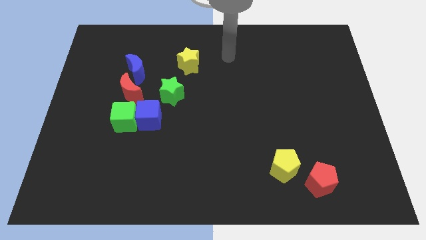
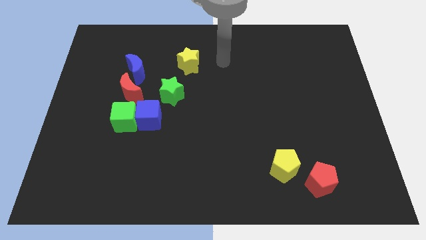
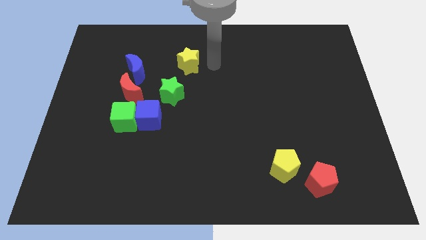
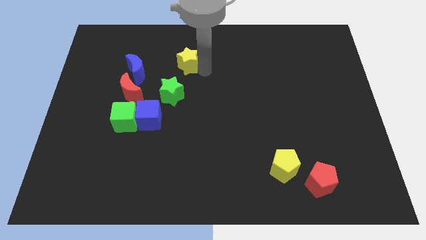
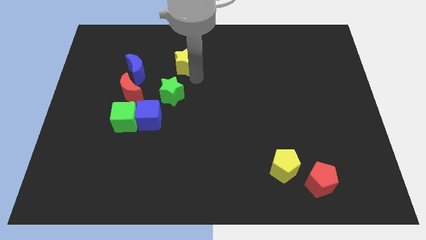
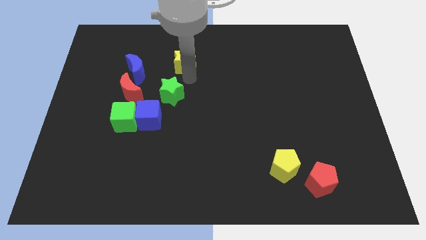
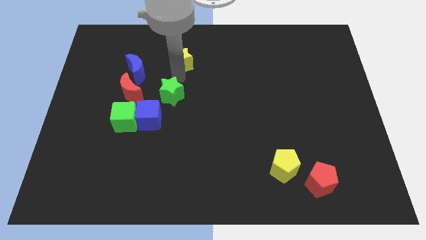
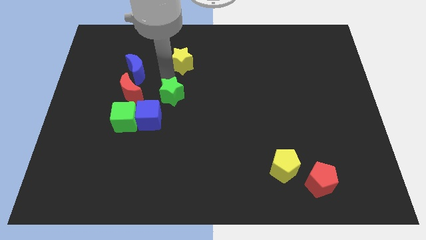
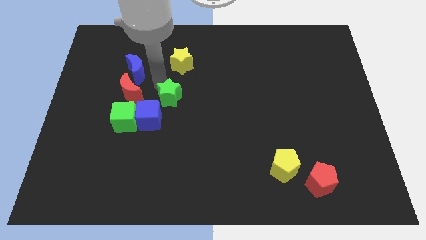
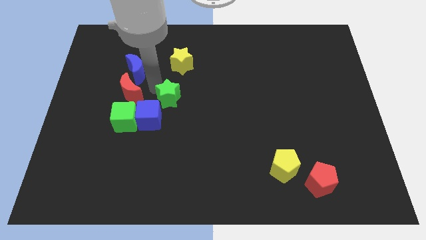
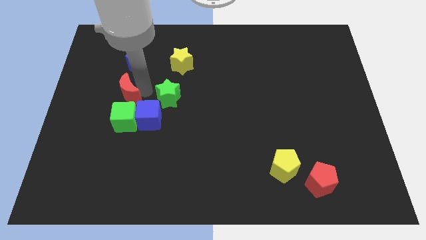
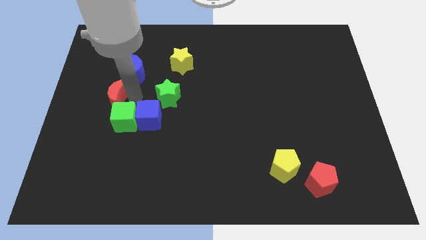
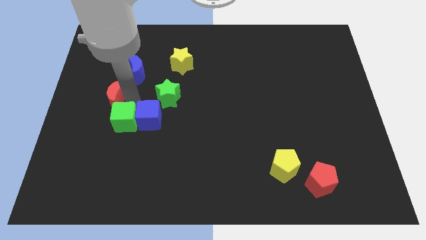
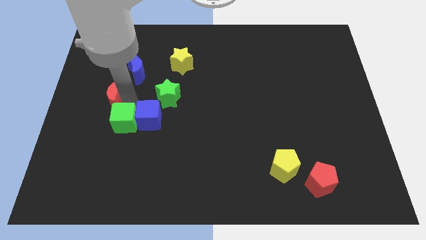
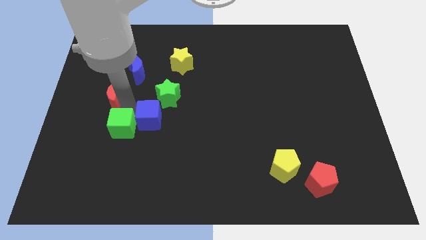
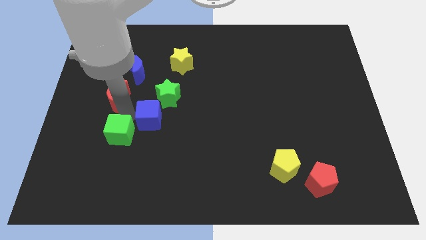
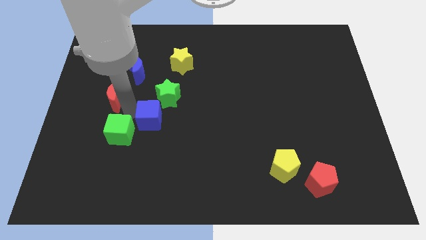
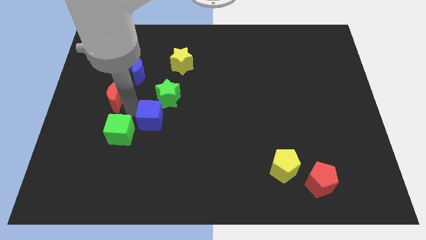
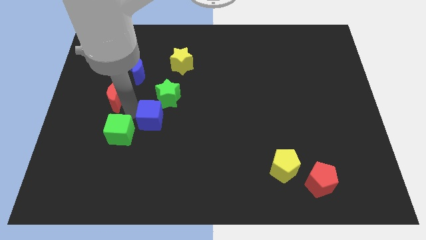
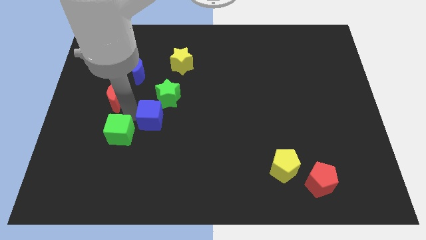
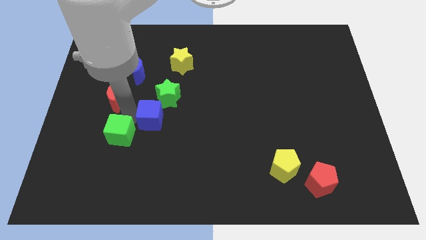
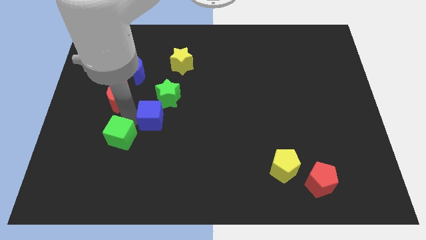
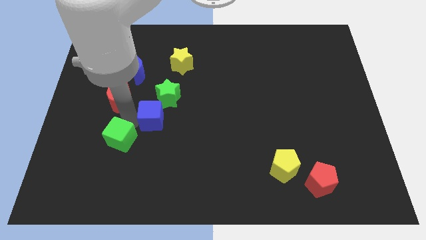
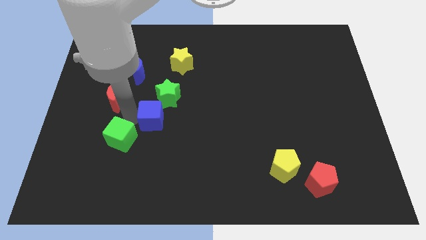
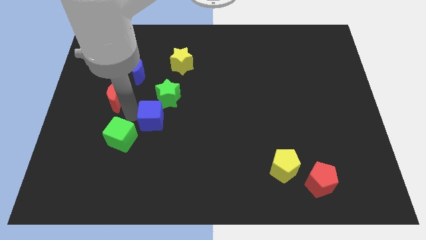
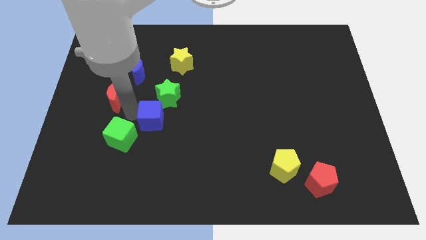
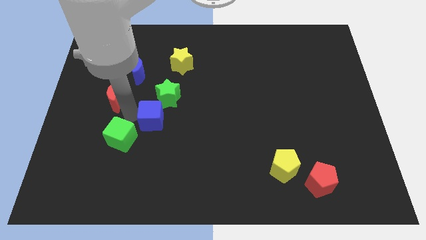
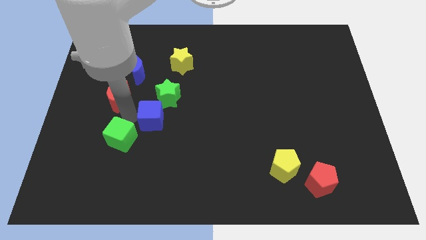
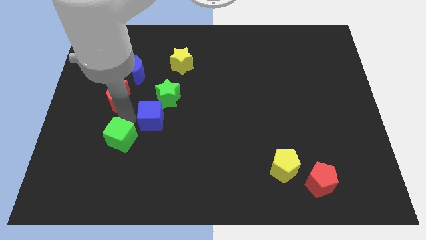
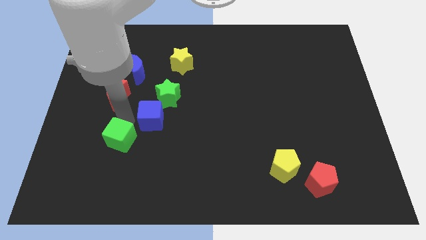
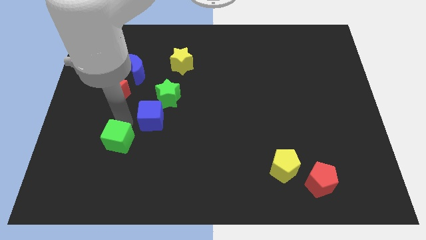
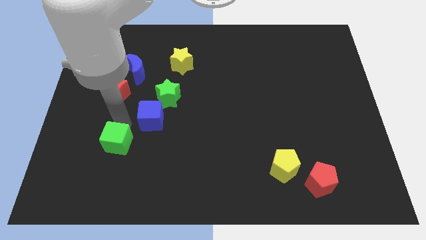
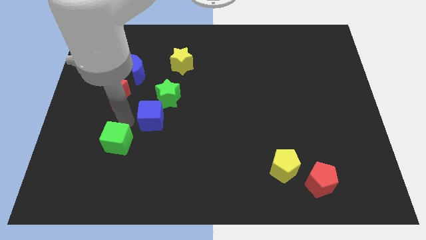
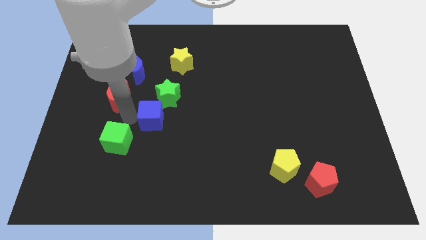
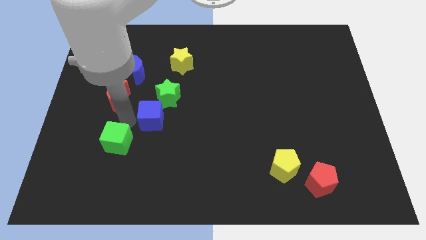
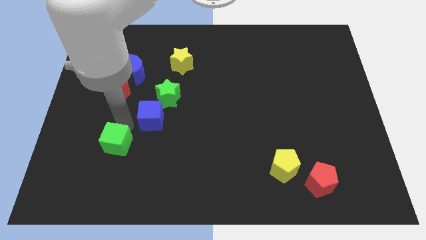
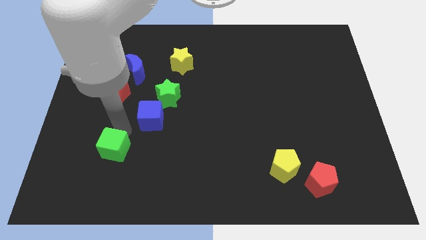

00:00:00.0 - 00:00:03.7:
pull the green cube apart from the blue cube and red moon

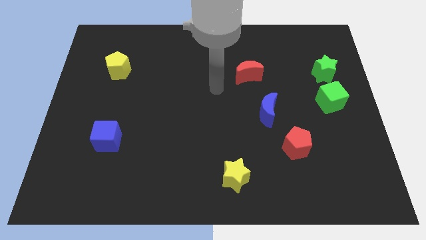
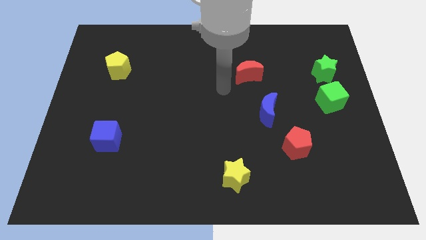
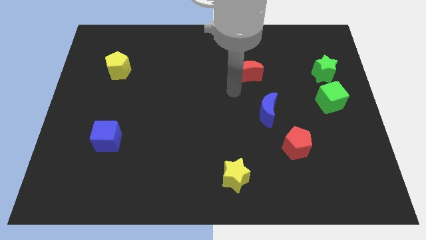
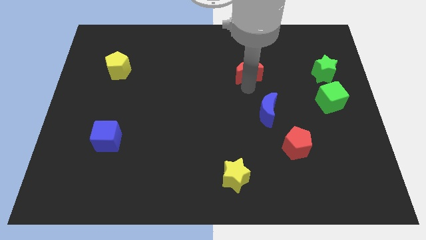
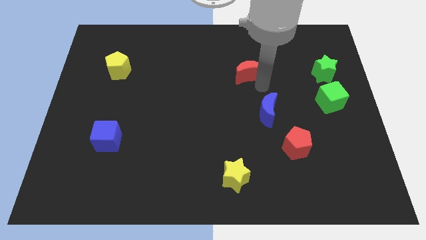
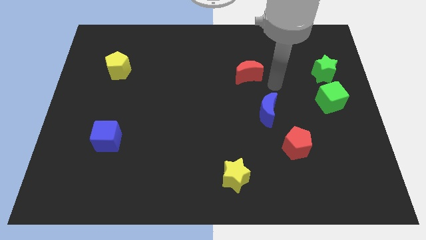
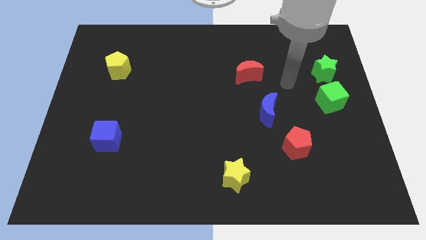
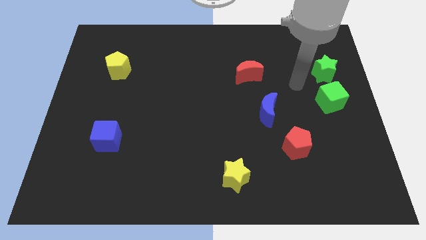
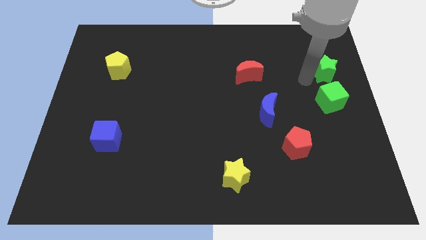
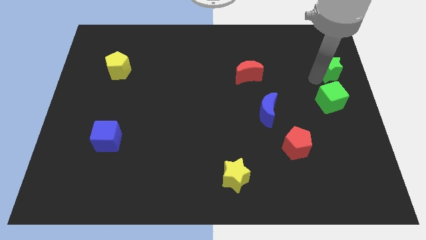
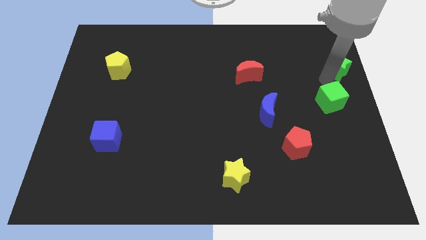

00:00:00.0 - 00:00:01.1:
move the green cube away from the green star

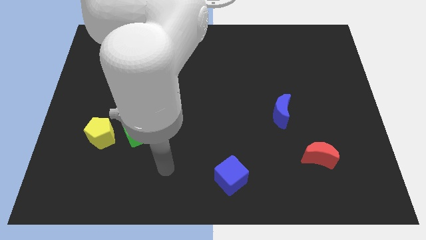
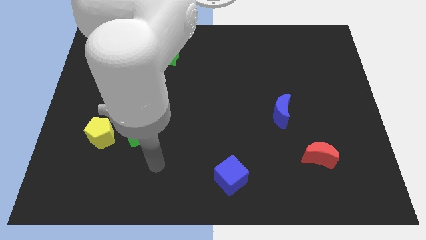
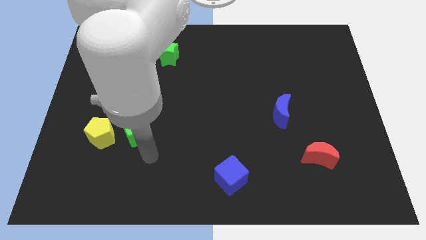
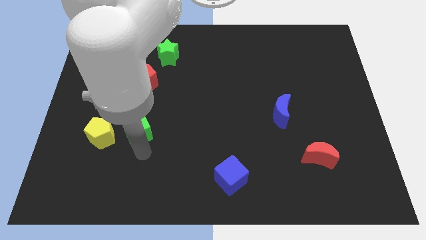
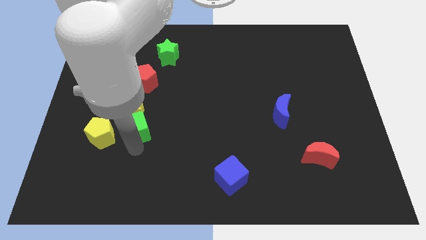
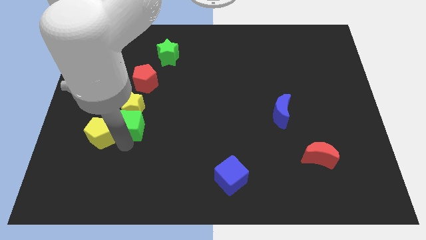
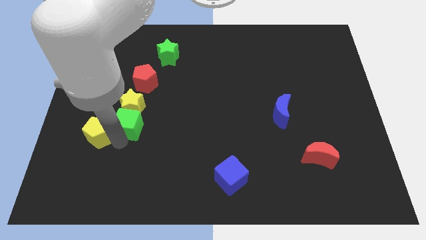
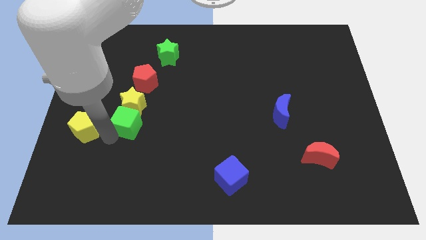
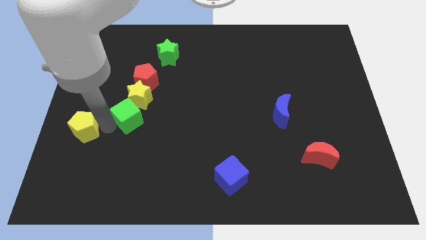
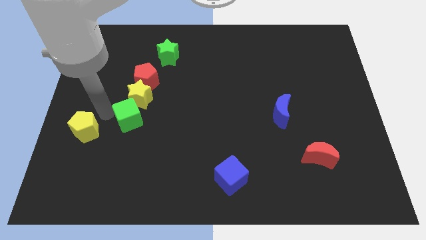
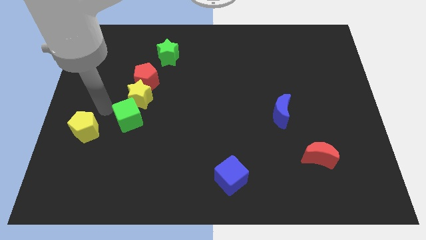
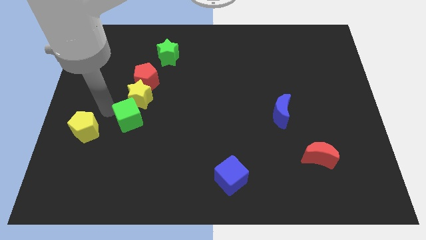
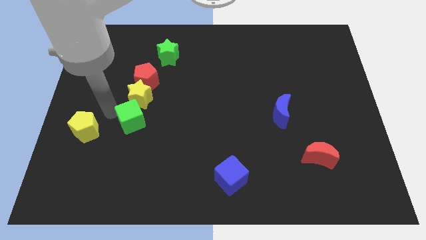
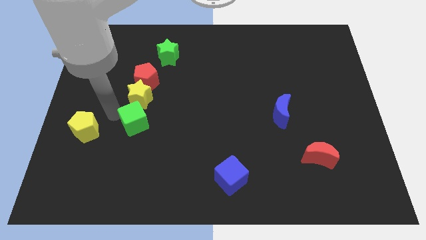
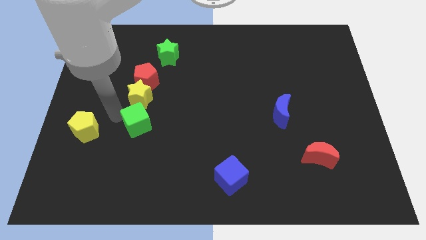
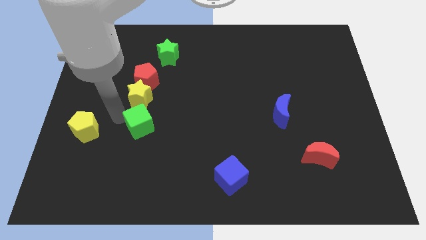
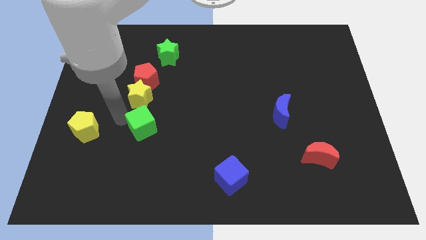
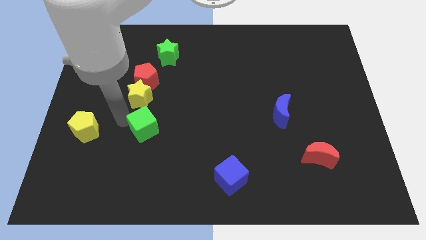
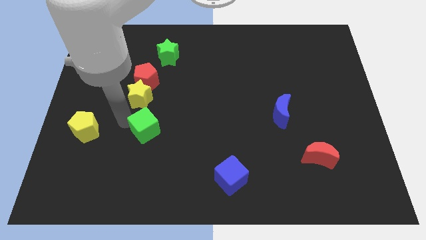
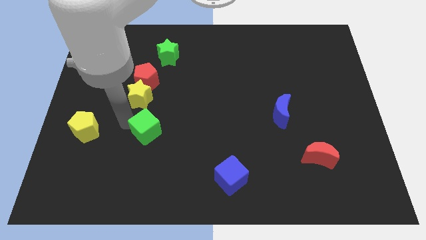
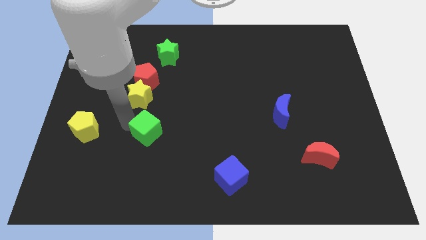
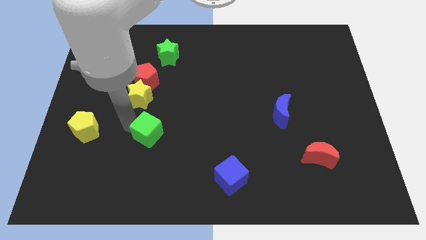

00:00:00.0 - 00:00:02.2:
pull the green cube apart from the yellow star and yellow pentagon

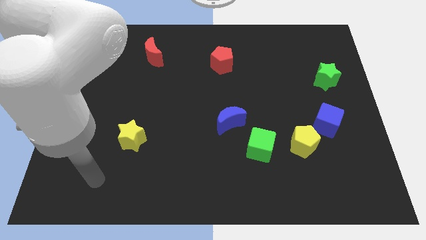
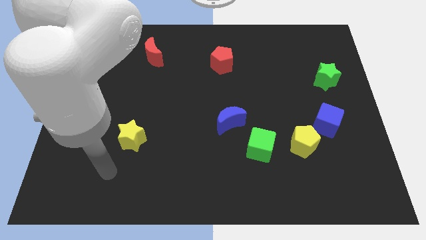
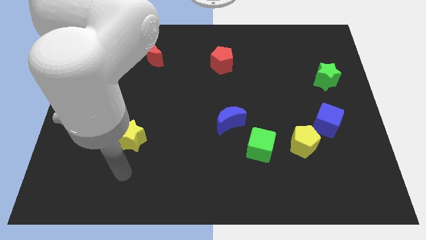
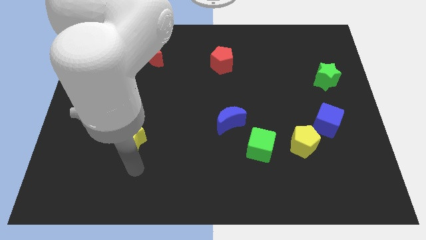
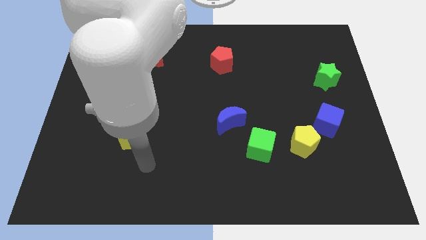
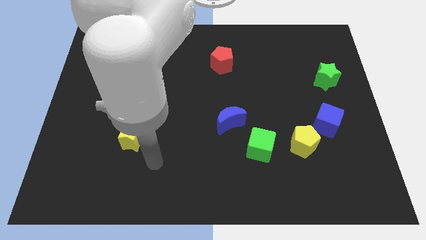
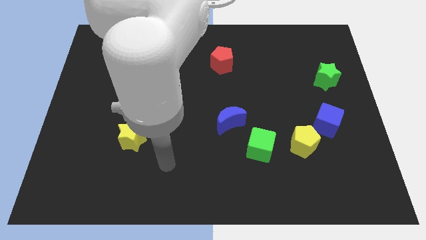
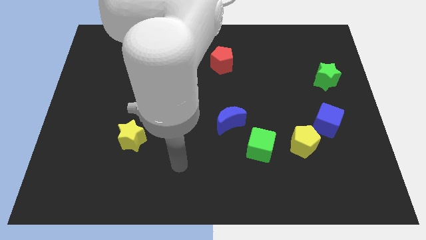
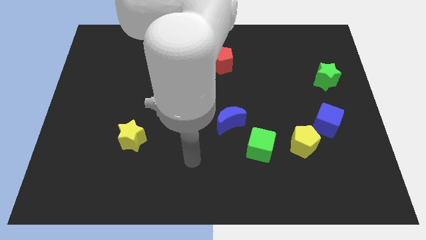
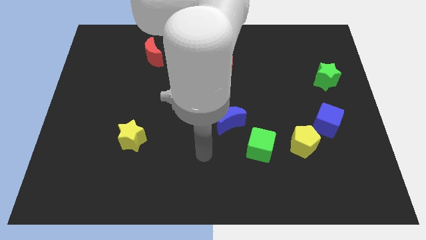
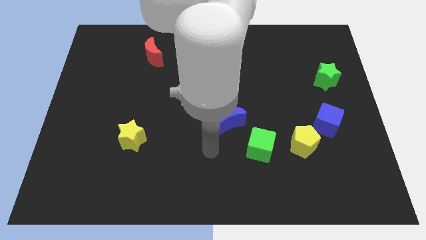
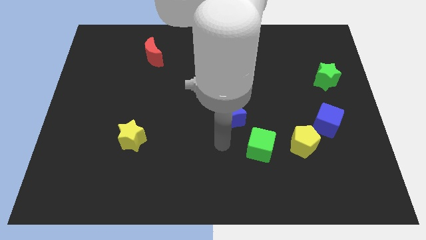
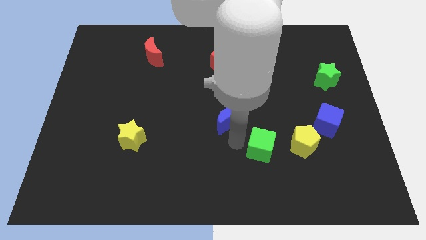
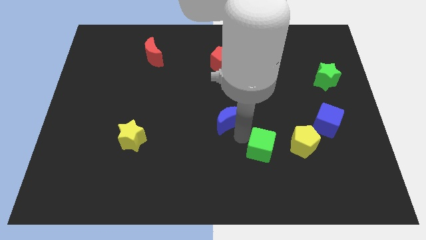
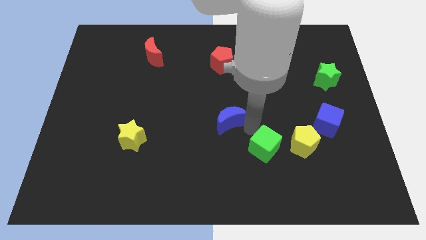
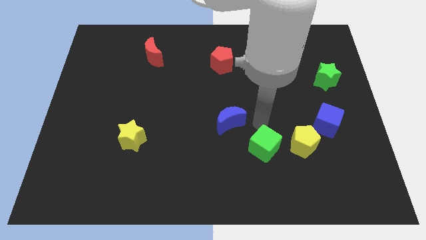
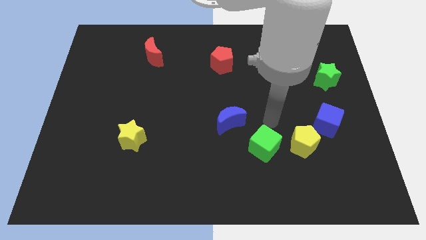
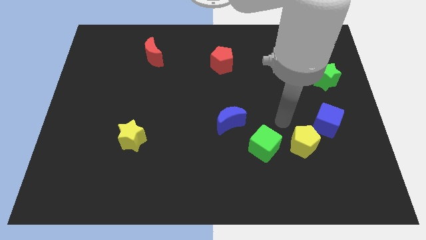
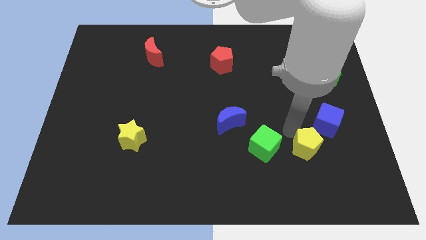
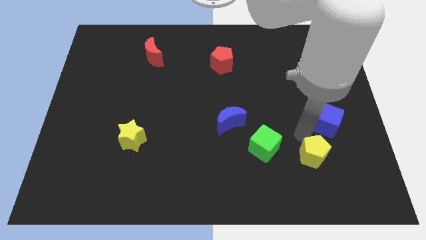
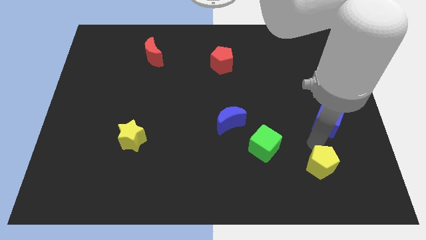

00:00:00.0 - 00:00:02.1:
separate the blue cube from the yellow pentagon

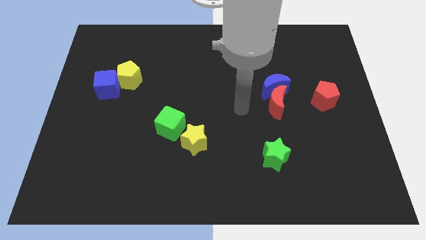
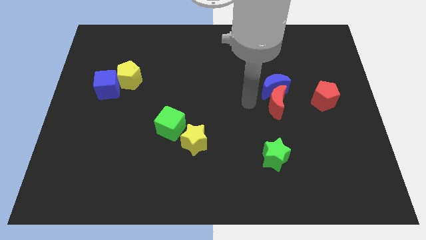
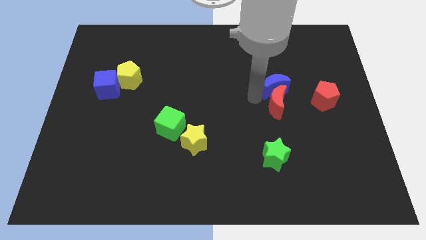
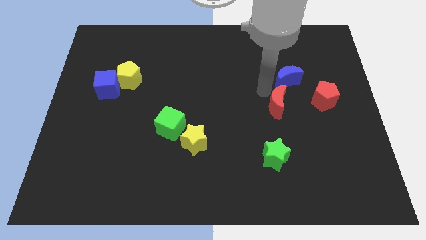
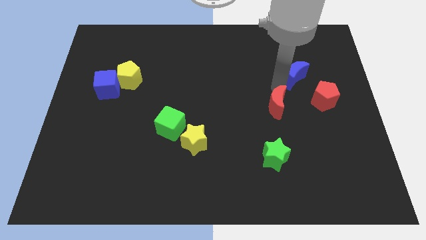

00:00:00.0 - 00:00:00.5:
move the red moon away from the blue moon
